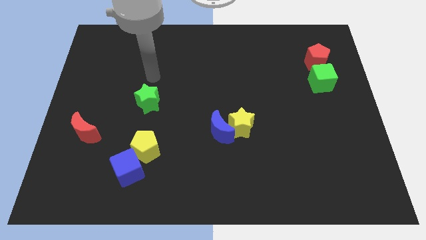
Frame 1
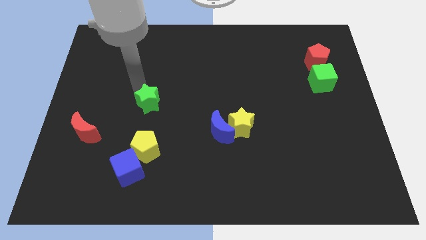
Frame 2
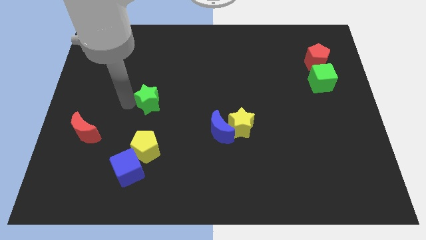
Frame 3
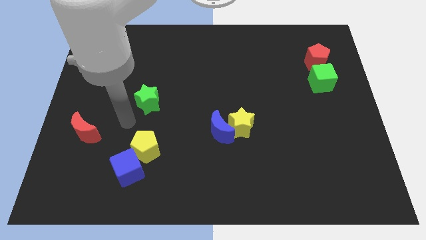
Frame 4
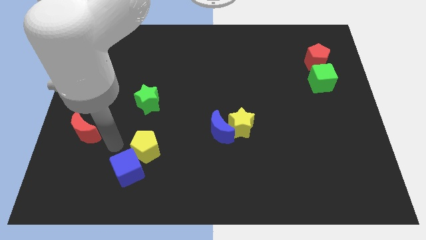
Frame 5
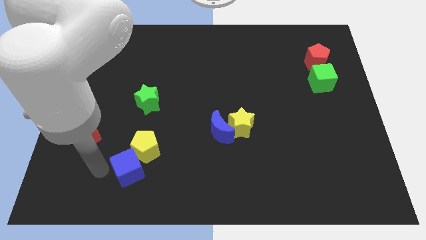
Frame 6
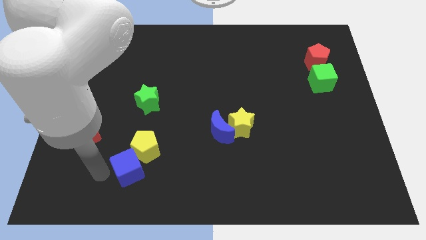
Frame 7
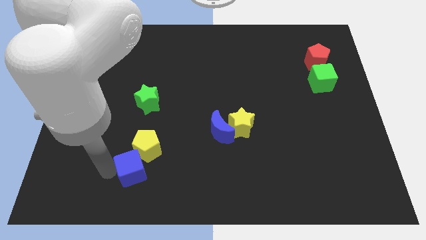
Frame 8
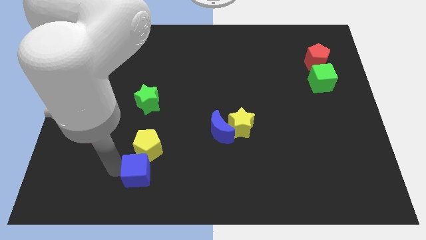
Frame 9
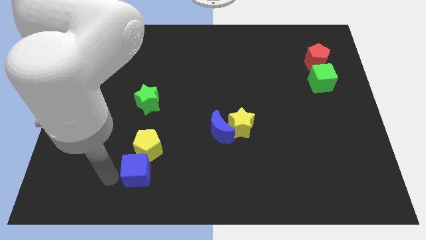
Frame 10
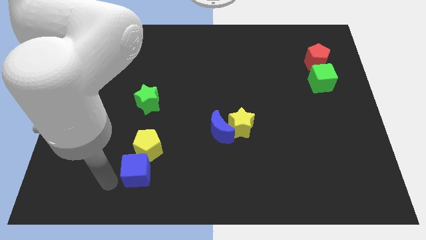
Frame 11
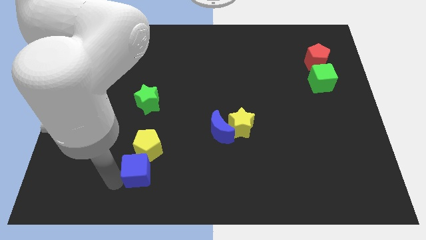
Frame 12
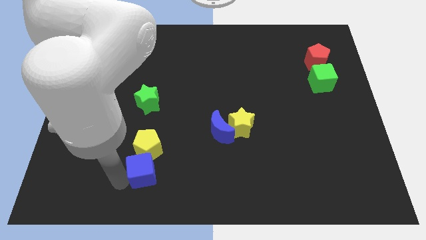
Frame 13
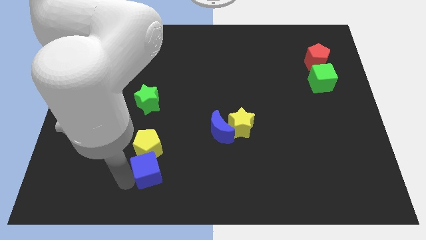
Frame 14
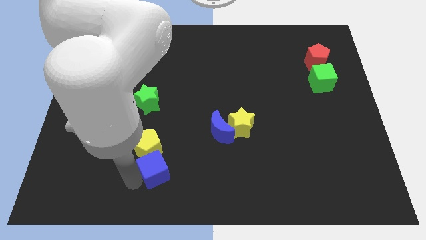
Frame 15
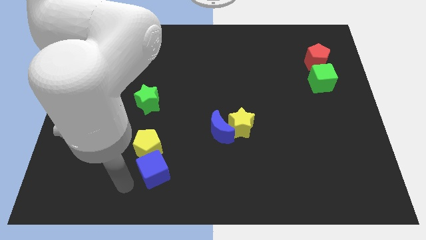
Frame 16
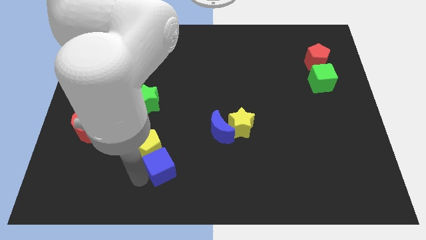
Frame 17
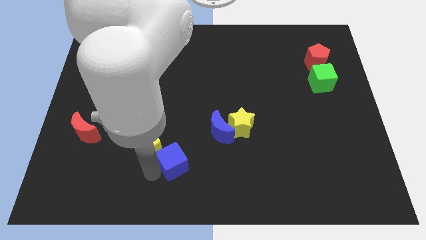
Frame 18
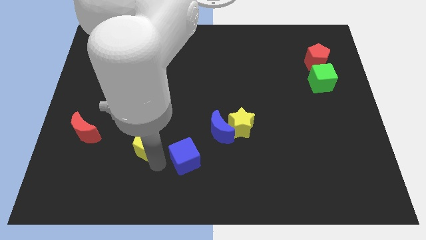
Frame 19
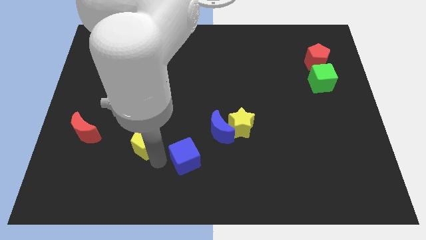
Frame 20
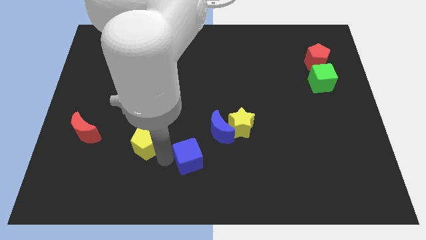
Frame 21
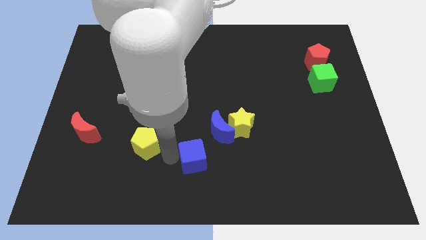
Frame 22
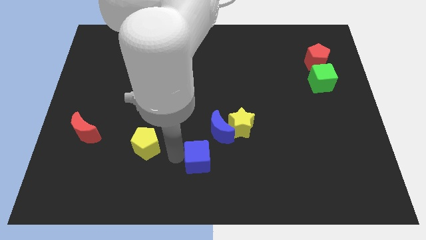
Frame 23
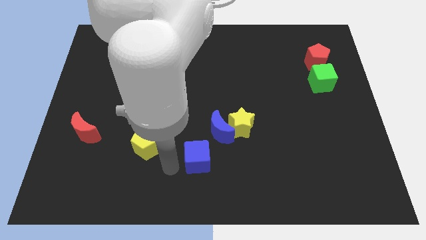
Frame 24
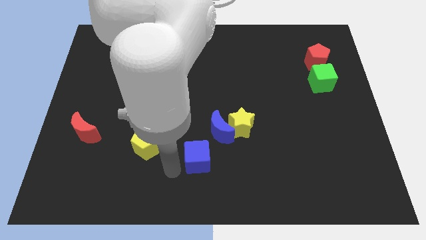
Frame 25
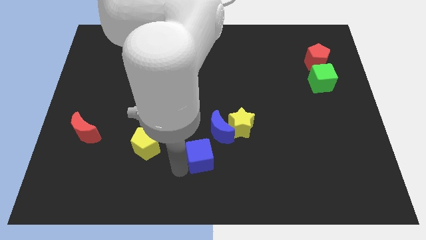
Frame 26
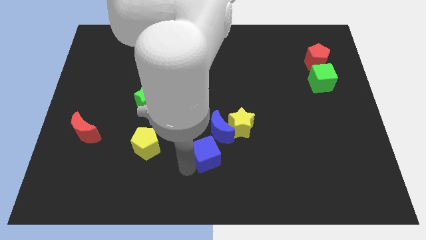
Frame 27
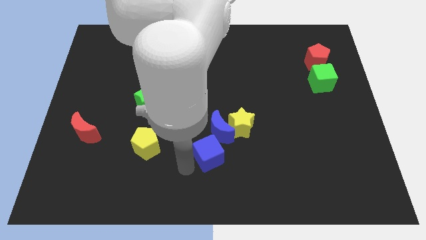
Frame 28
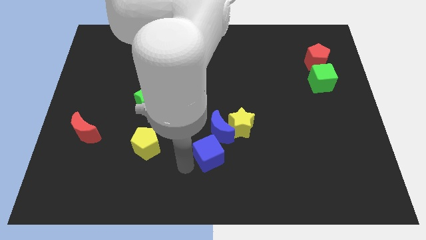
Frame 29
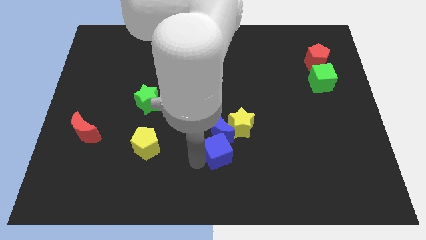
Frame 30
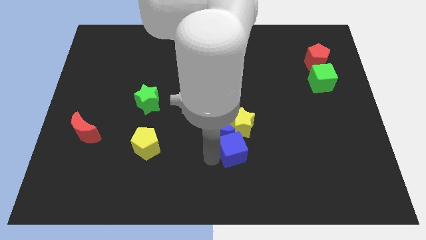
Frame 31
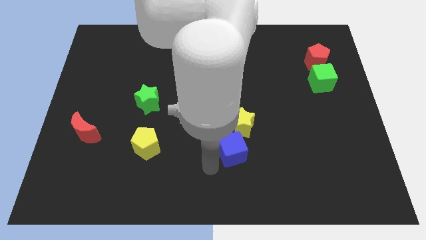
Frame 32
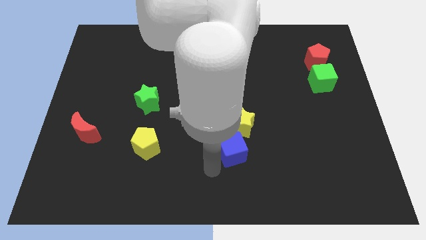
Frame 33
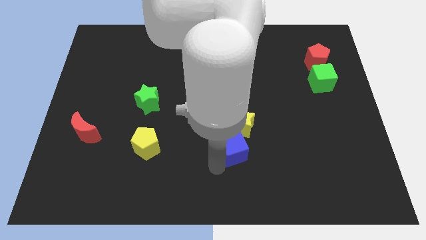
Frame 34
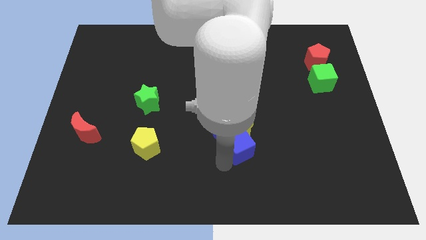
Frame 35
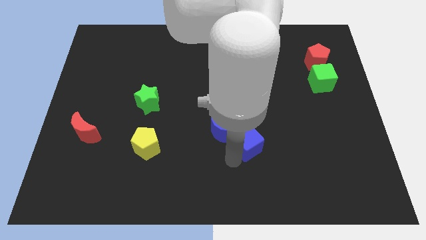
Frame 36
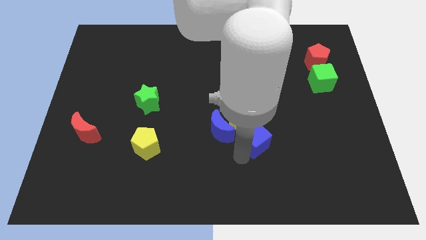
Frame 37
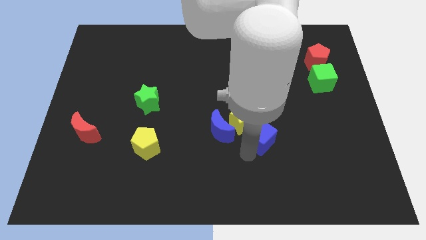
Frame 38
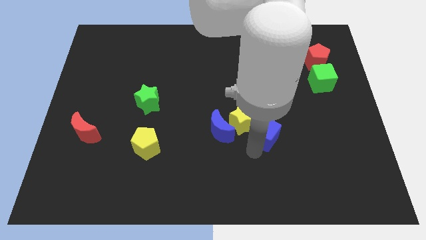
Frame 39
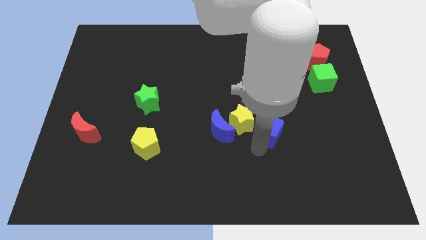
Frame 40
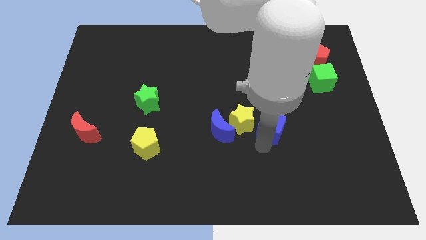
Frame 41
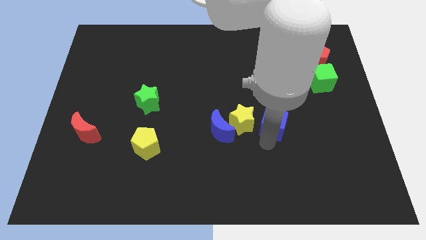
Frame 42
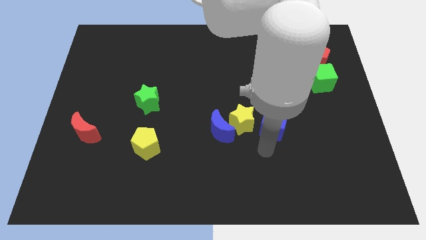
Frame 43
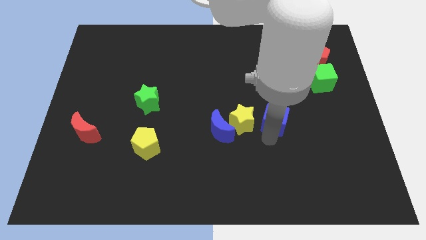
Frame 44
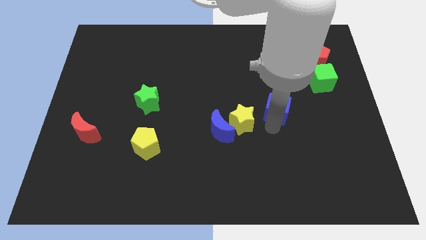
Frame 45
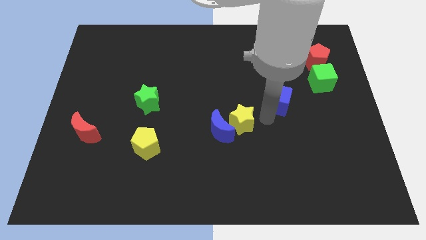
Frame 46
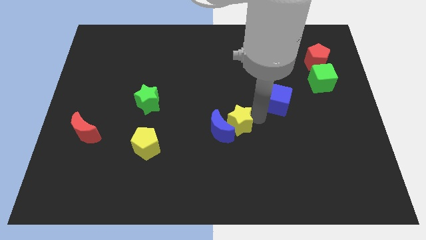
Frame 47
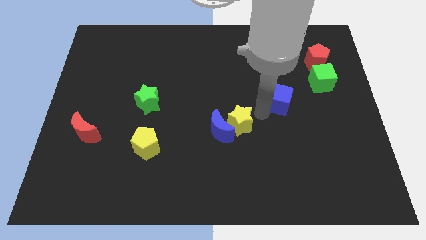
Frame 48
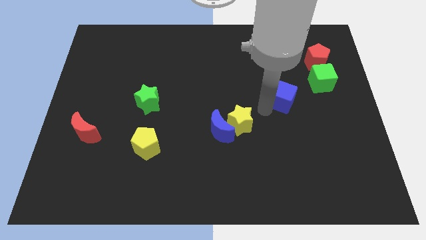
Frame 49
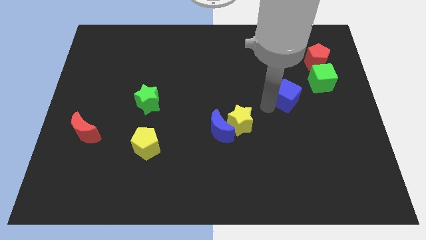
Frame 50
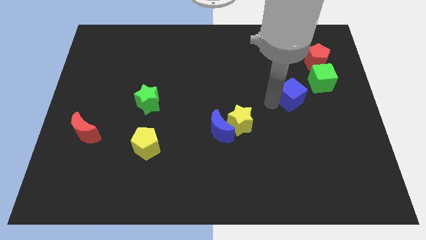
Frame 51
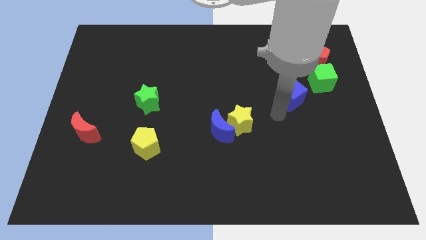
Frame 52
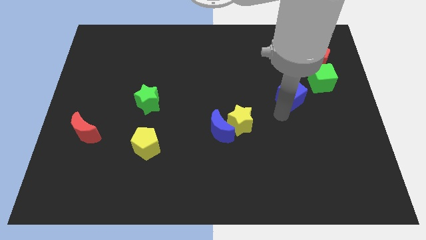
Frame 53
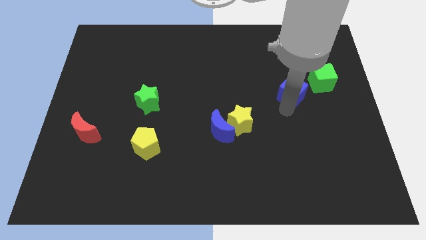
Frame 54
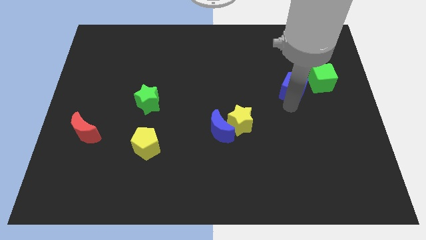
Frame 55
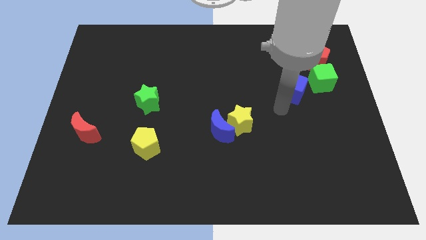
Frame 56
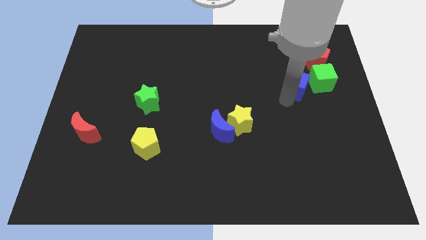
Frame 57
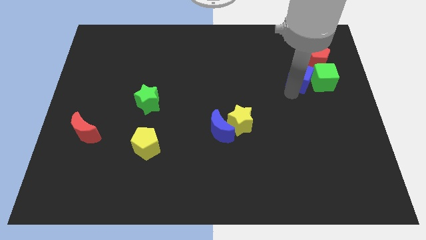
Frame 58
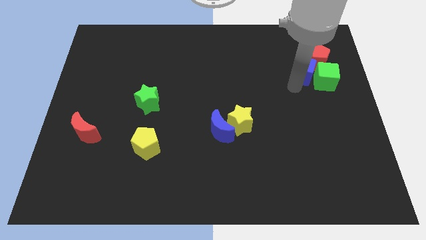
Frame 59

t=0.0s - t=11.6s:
slide the blue cube next to the red pentagon
